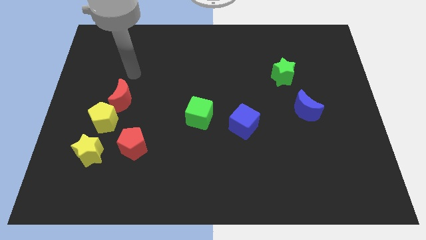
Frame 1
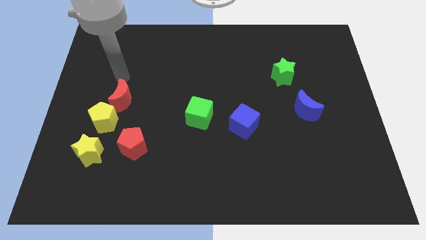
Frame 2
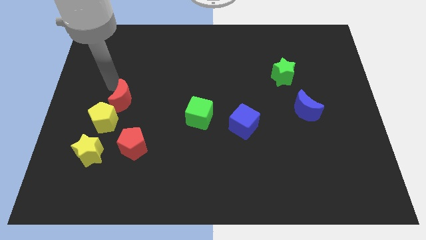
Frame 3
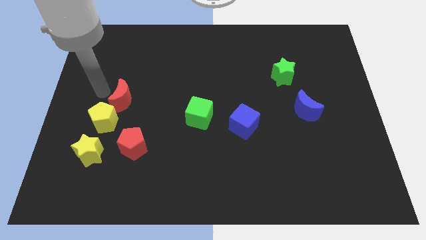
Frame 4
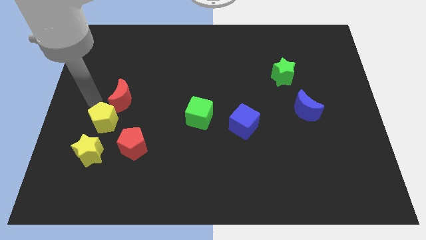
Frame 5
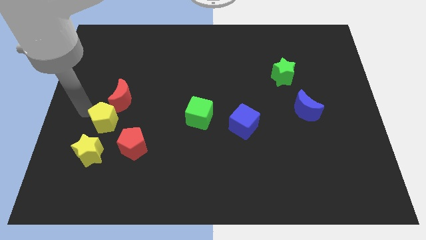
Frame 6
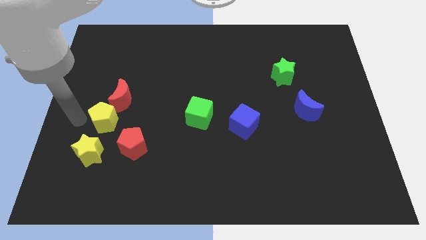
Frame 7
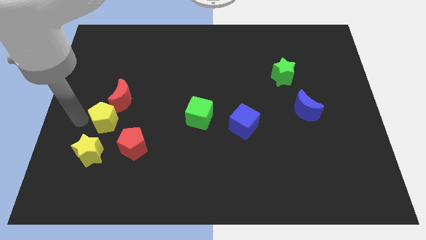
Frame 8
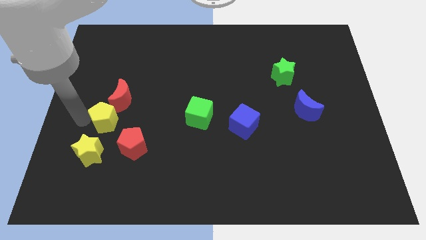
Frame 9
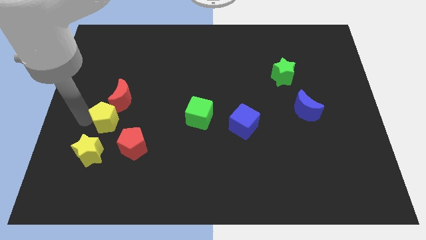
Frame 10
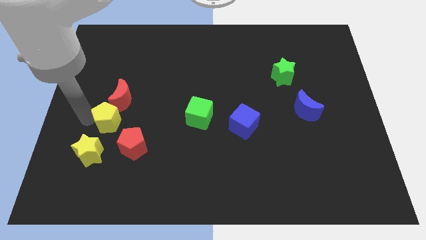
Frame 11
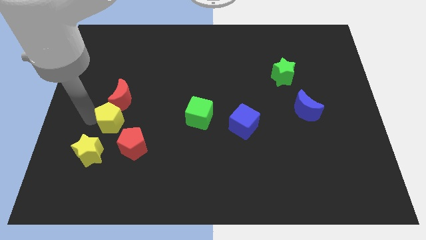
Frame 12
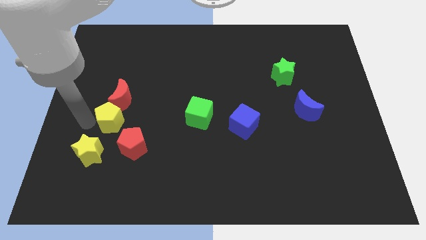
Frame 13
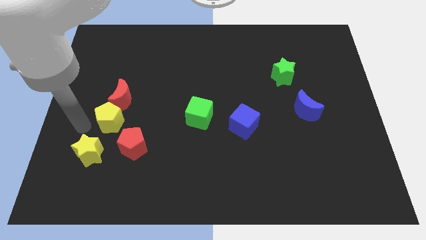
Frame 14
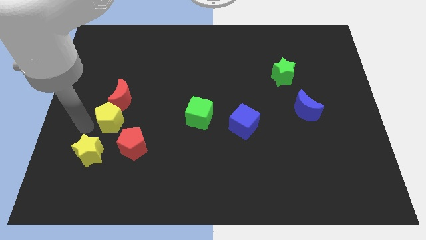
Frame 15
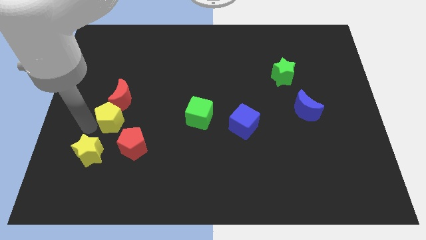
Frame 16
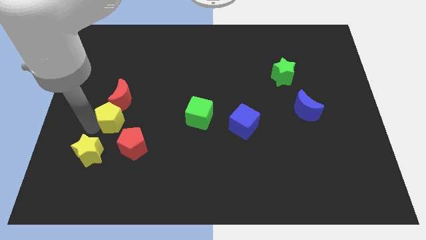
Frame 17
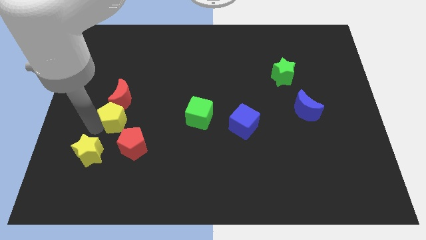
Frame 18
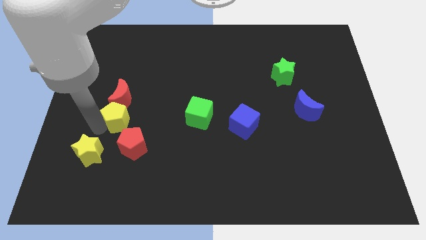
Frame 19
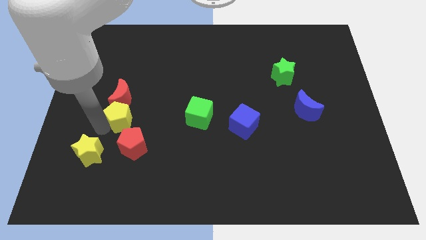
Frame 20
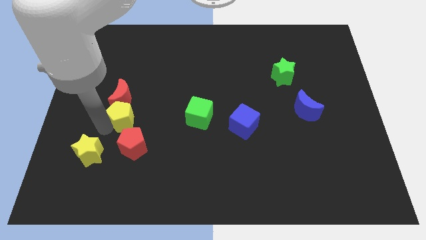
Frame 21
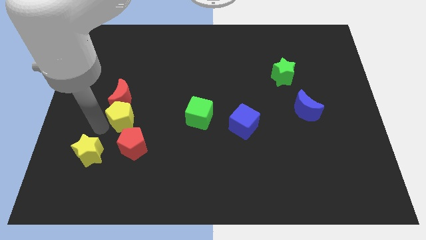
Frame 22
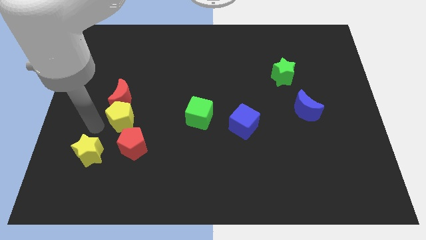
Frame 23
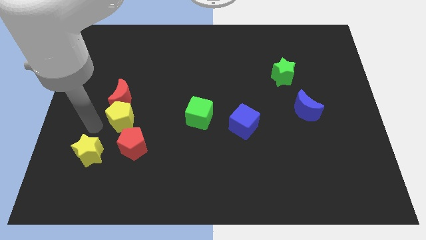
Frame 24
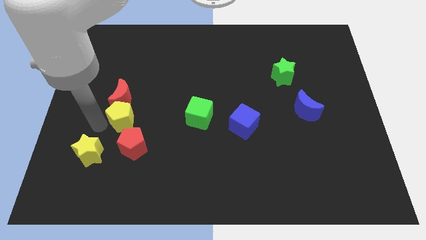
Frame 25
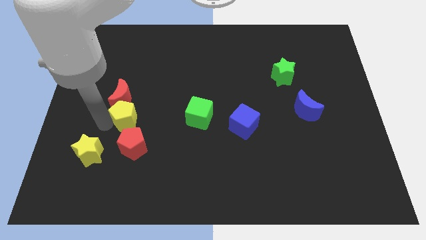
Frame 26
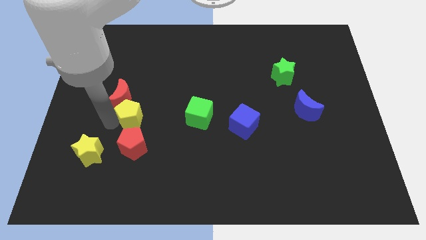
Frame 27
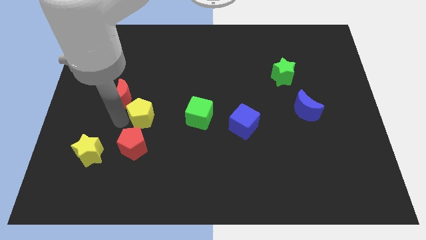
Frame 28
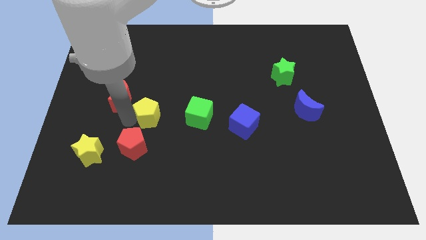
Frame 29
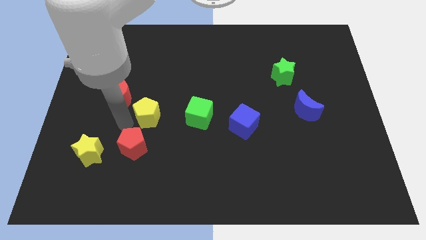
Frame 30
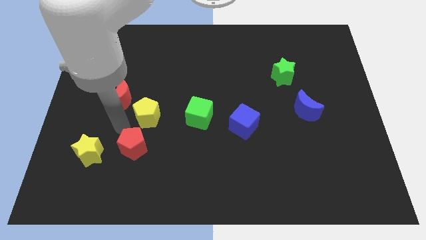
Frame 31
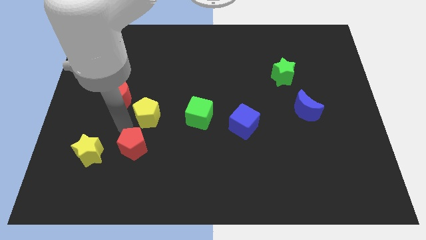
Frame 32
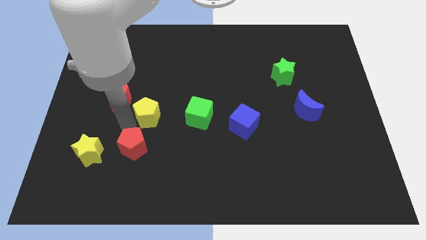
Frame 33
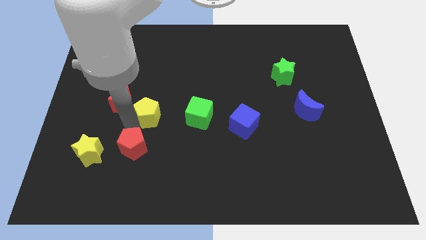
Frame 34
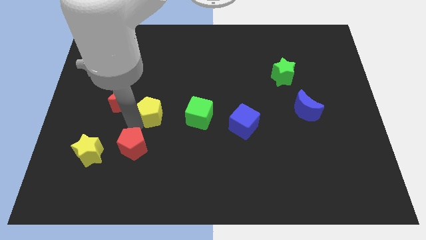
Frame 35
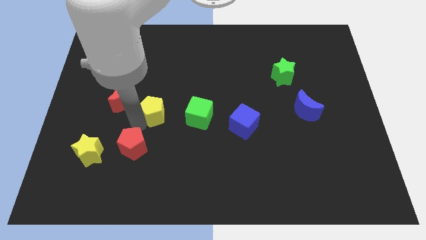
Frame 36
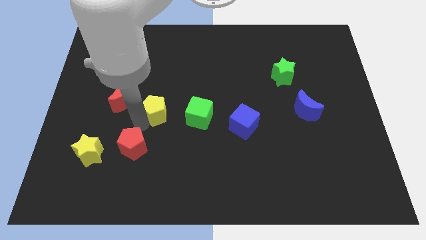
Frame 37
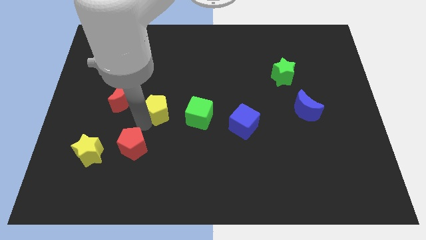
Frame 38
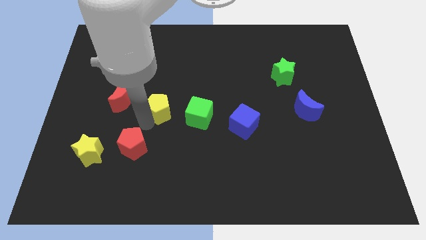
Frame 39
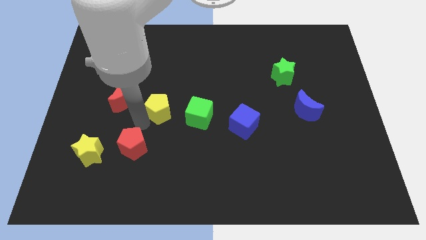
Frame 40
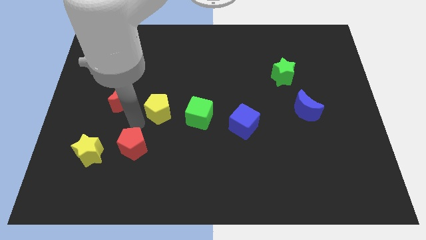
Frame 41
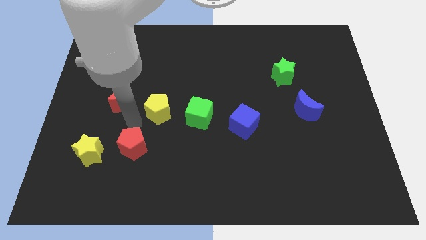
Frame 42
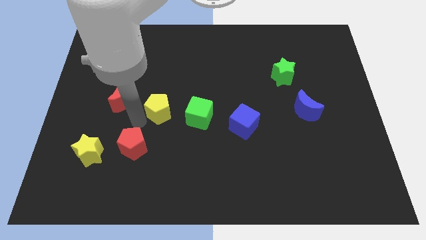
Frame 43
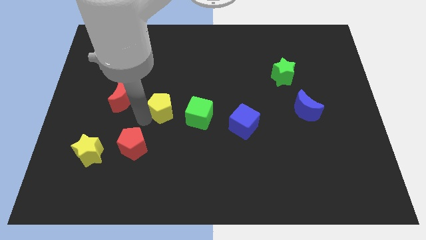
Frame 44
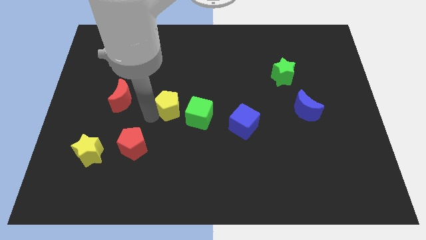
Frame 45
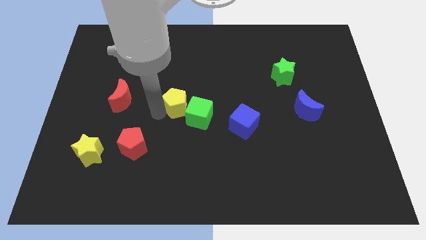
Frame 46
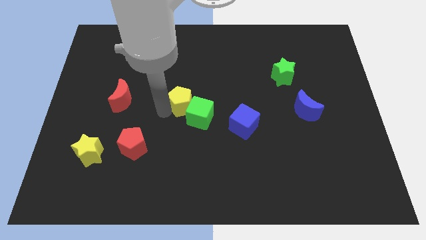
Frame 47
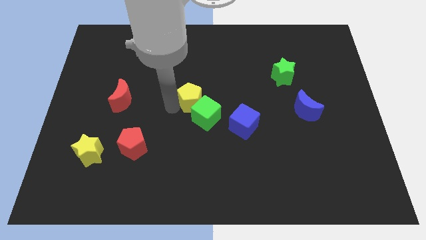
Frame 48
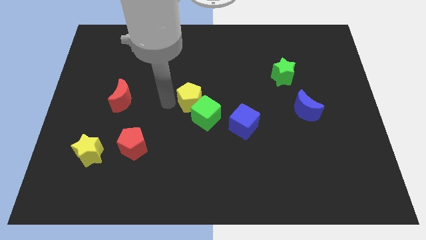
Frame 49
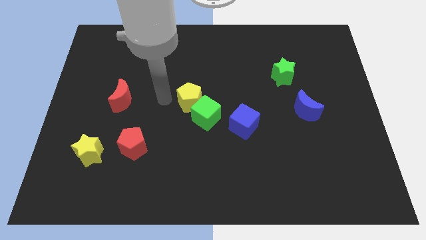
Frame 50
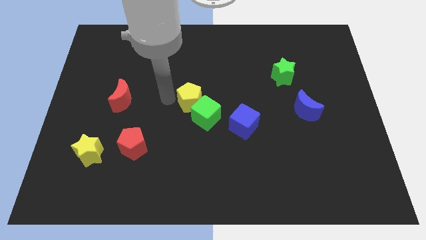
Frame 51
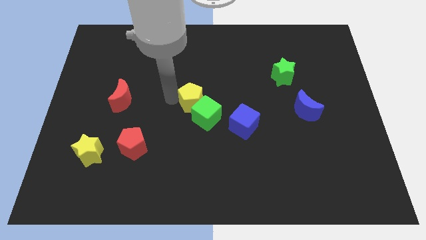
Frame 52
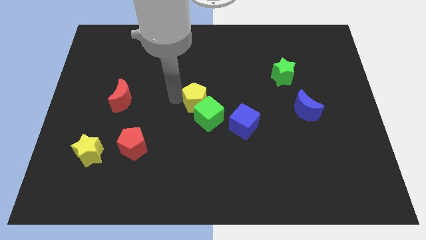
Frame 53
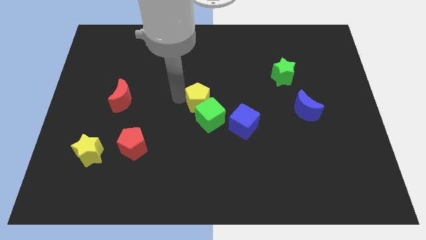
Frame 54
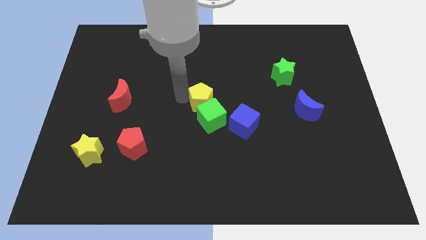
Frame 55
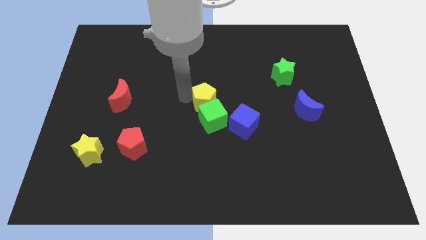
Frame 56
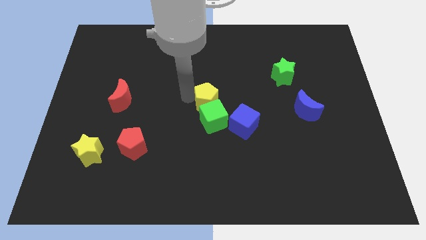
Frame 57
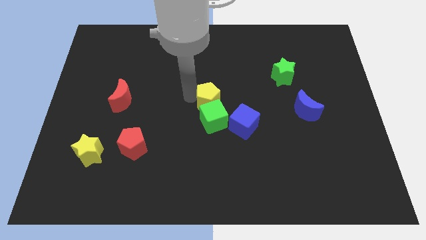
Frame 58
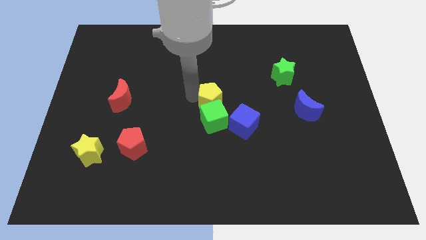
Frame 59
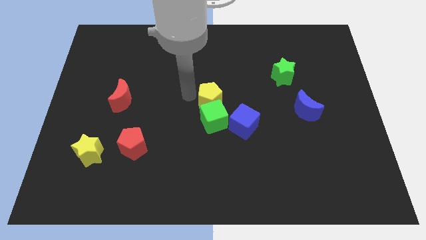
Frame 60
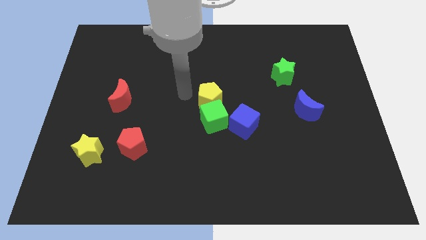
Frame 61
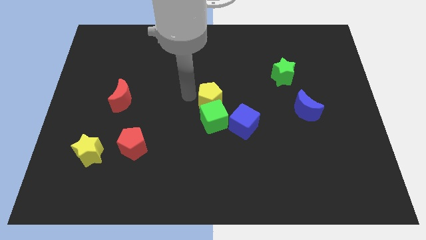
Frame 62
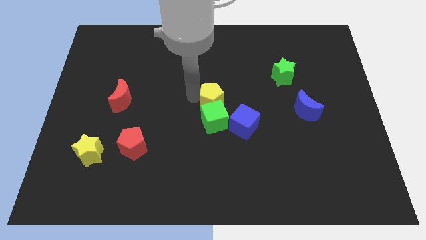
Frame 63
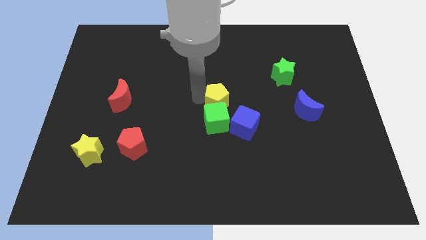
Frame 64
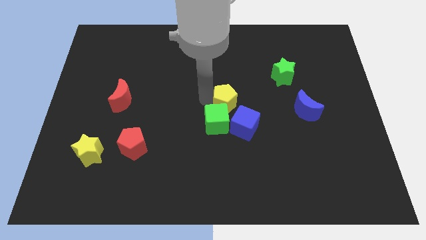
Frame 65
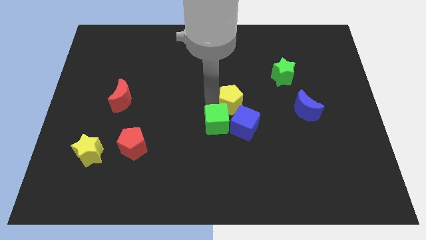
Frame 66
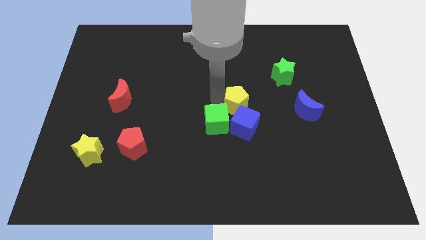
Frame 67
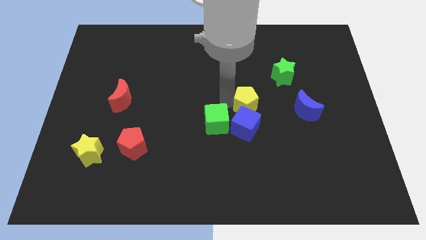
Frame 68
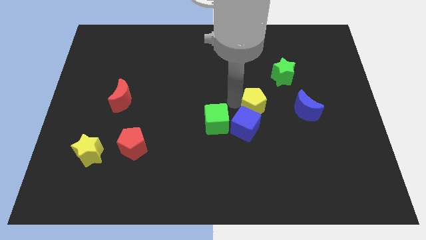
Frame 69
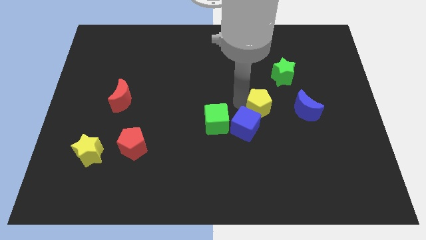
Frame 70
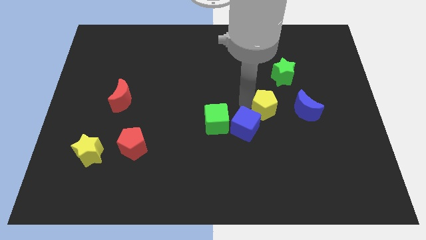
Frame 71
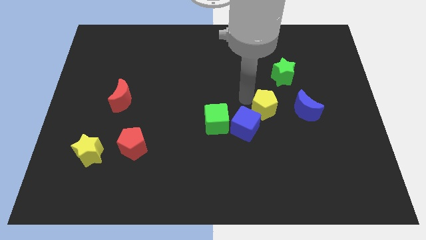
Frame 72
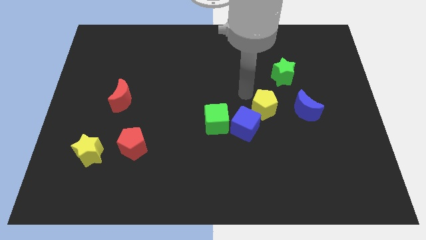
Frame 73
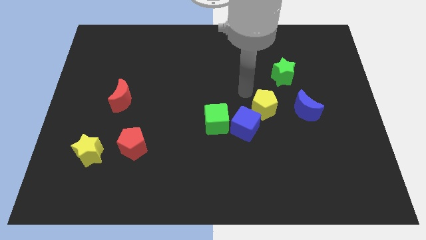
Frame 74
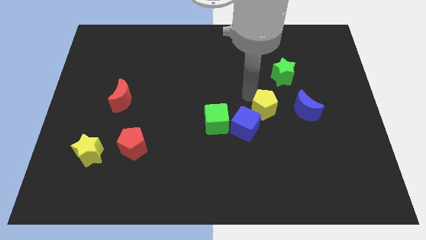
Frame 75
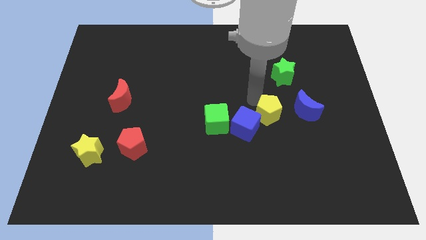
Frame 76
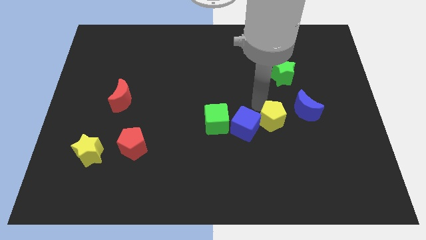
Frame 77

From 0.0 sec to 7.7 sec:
put the yellow pentagon to the bottom left of the blue moon
